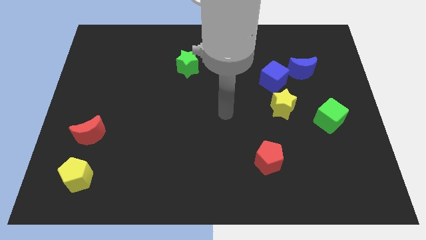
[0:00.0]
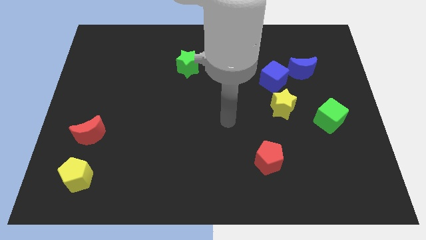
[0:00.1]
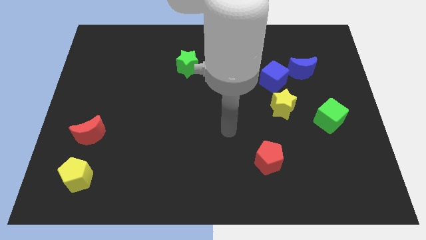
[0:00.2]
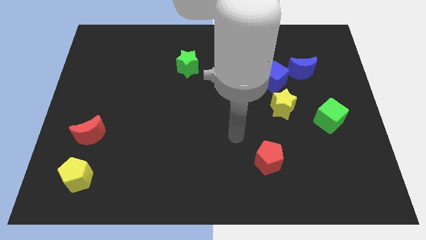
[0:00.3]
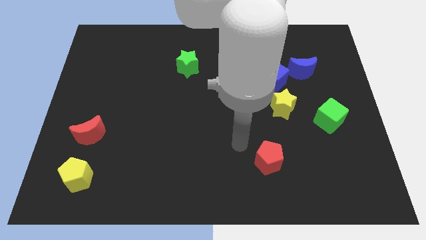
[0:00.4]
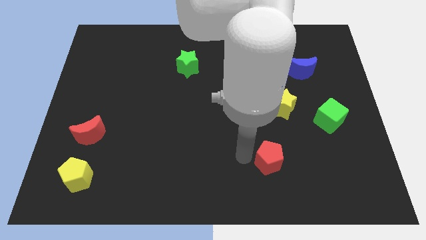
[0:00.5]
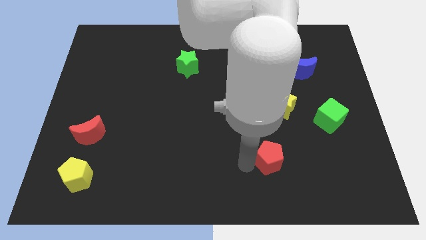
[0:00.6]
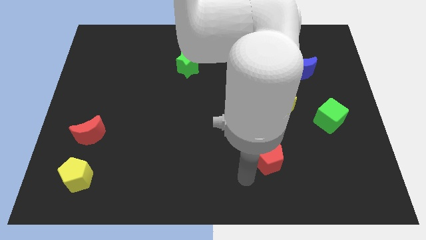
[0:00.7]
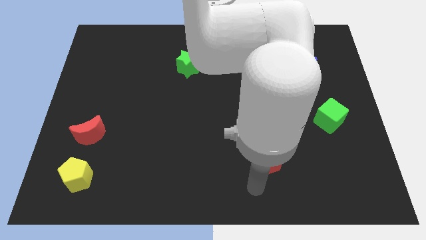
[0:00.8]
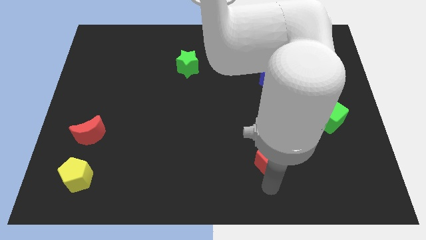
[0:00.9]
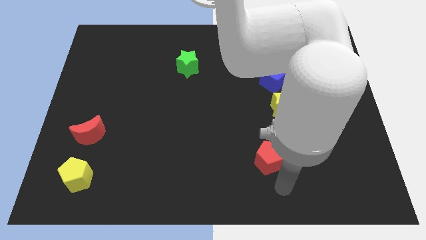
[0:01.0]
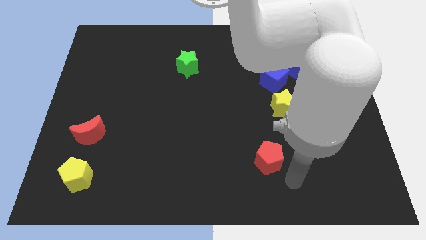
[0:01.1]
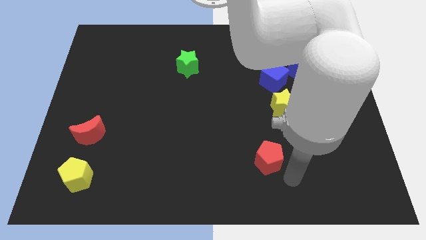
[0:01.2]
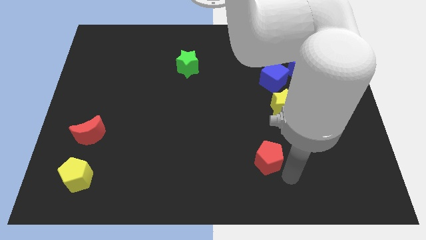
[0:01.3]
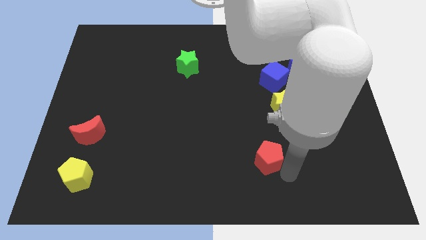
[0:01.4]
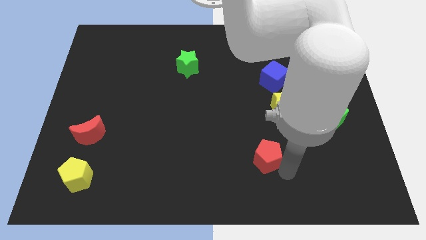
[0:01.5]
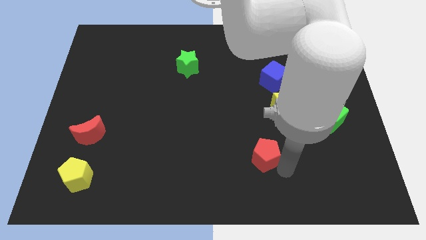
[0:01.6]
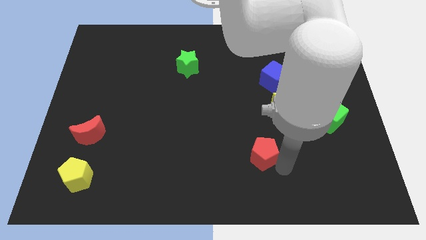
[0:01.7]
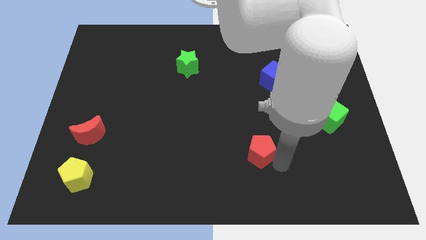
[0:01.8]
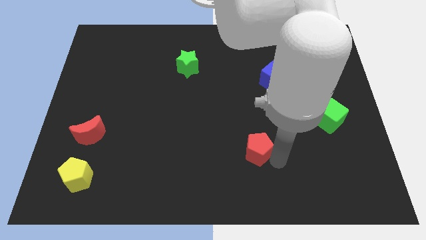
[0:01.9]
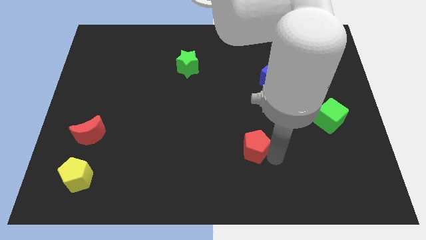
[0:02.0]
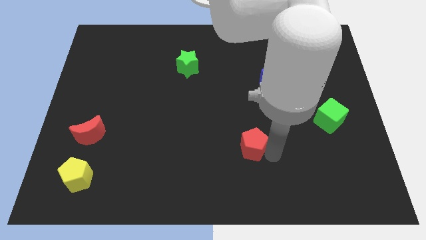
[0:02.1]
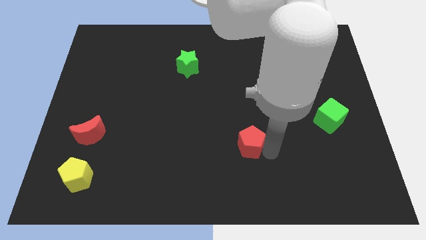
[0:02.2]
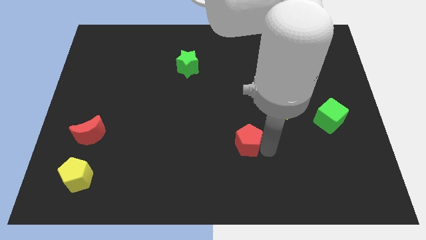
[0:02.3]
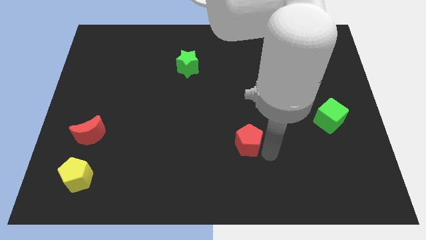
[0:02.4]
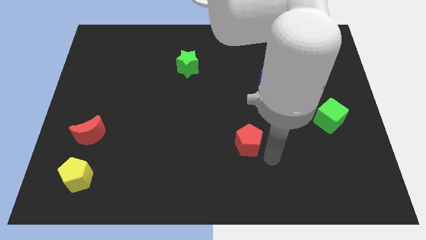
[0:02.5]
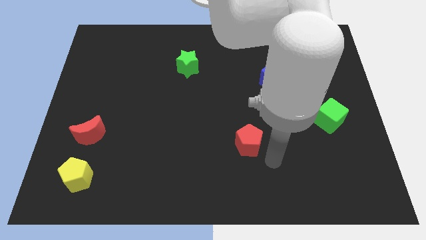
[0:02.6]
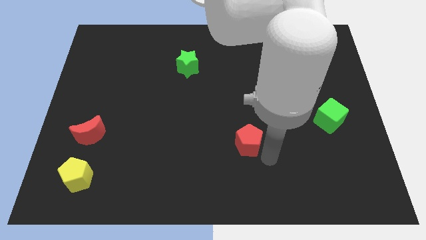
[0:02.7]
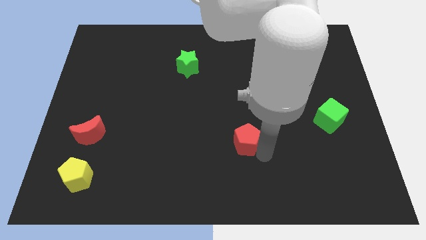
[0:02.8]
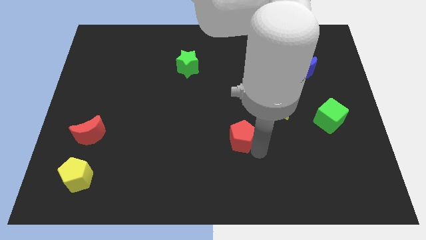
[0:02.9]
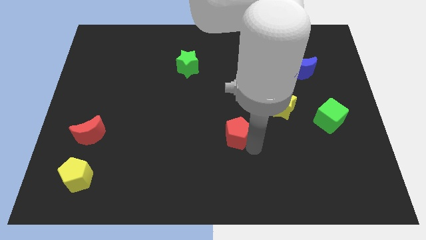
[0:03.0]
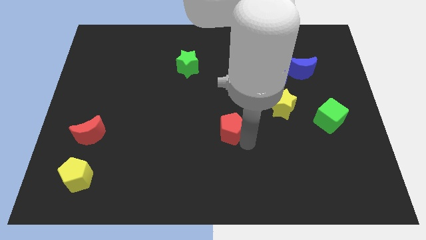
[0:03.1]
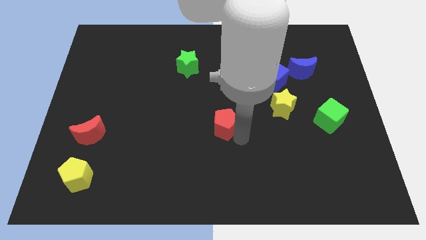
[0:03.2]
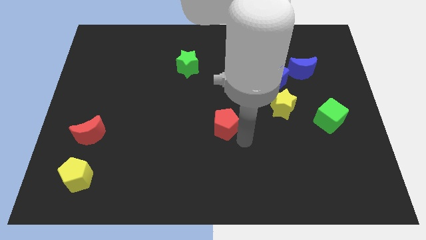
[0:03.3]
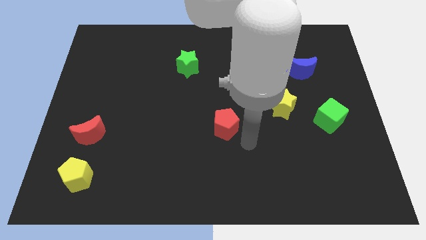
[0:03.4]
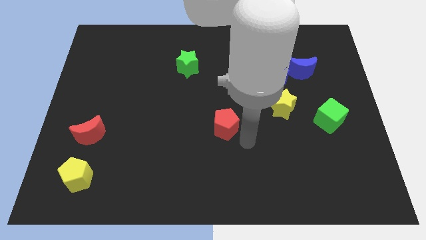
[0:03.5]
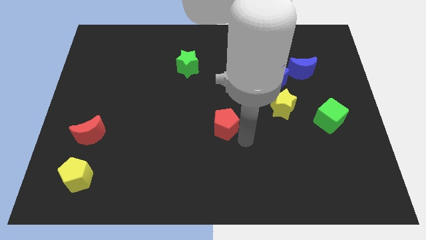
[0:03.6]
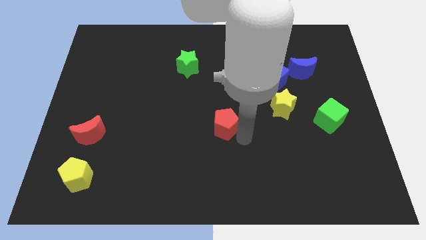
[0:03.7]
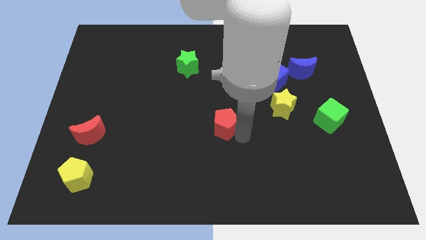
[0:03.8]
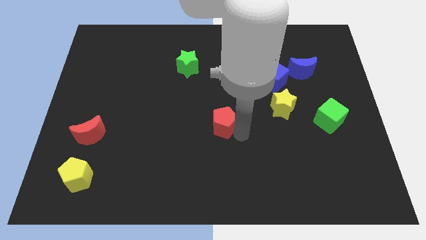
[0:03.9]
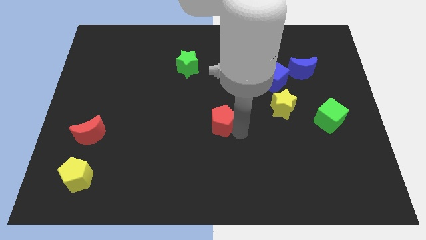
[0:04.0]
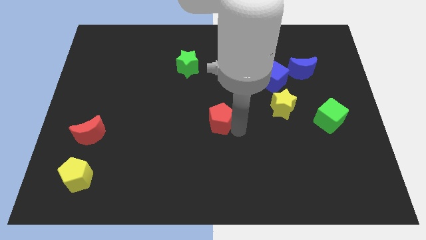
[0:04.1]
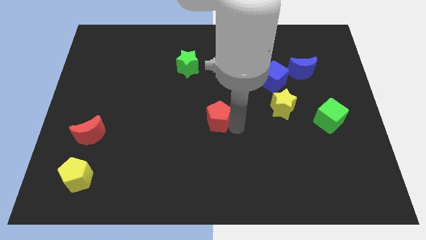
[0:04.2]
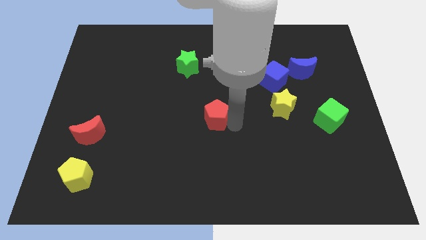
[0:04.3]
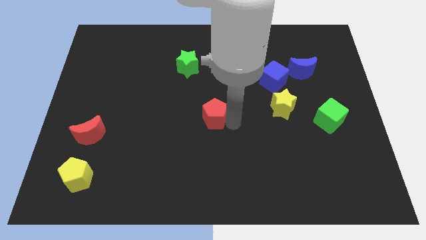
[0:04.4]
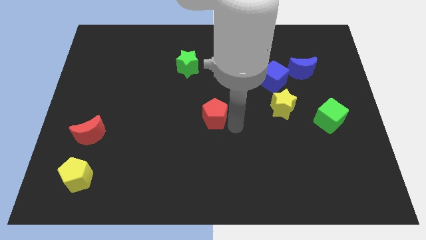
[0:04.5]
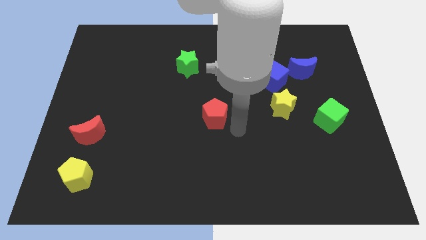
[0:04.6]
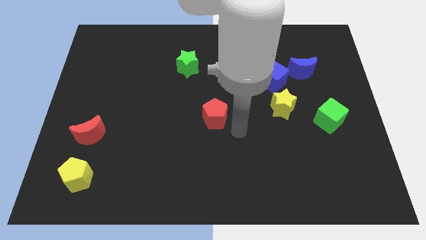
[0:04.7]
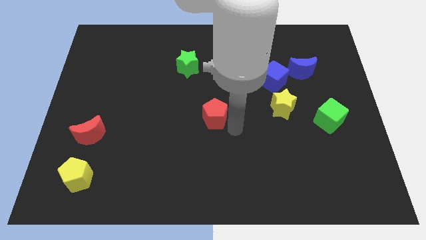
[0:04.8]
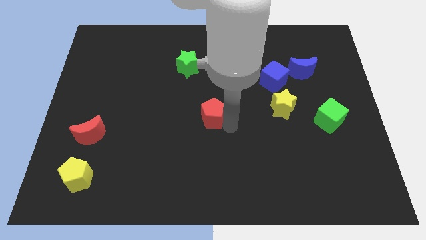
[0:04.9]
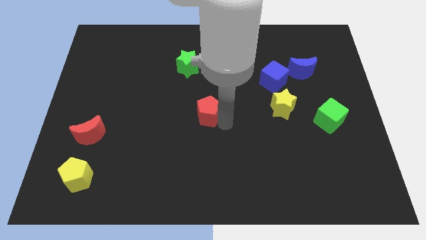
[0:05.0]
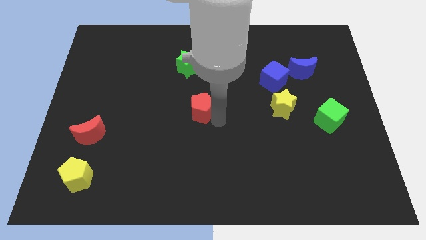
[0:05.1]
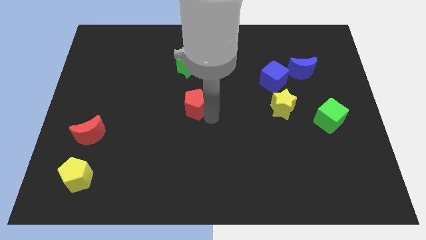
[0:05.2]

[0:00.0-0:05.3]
push the red pentagon up and then to the left

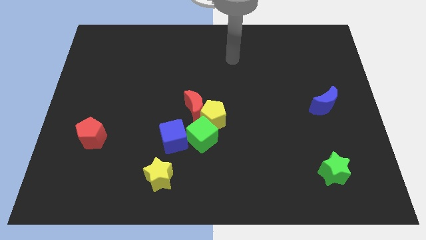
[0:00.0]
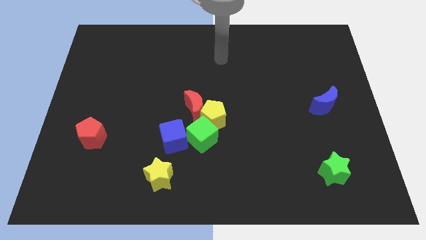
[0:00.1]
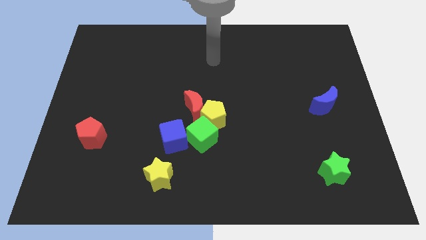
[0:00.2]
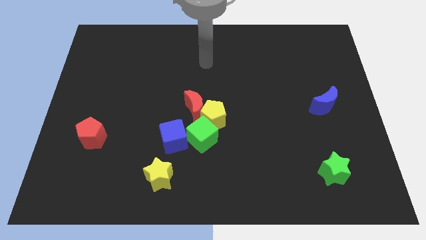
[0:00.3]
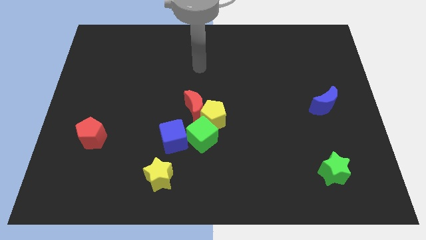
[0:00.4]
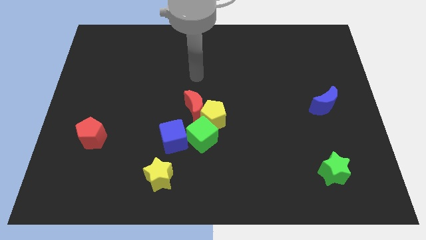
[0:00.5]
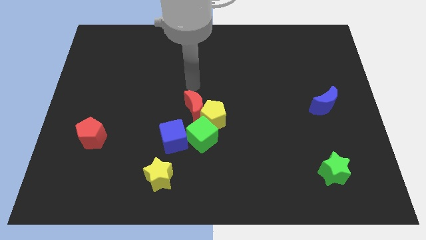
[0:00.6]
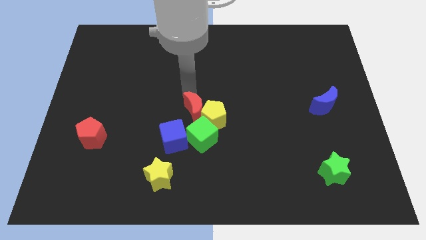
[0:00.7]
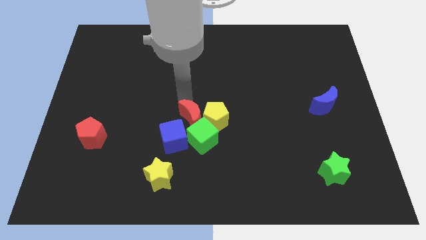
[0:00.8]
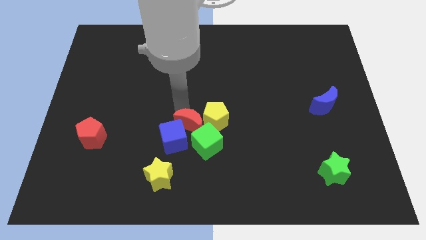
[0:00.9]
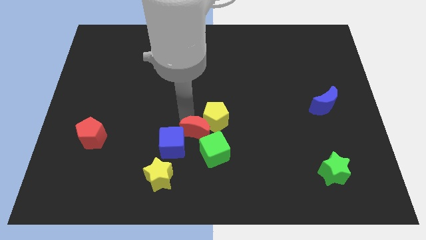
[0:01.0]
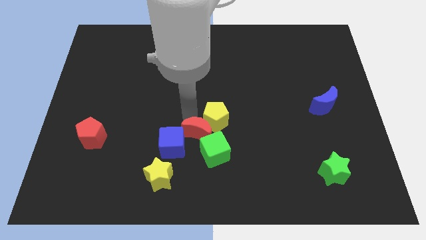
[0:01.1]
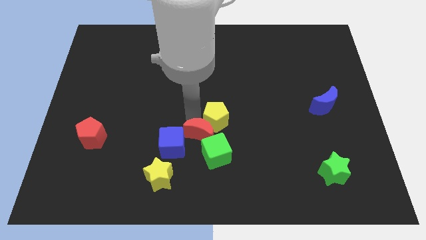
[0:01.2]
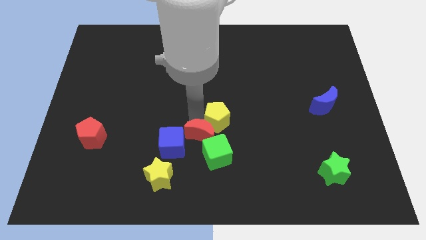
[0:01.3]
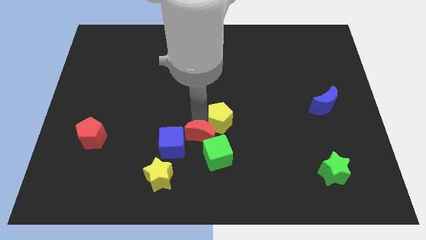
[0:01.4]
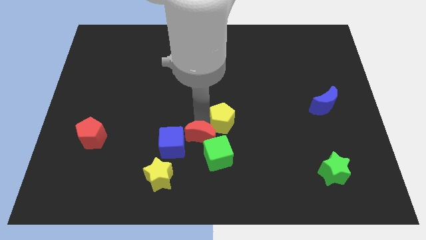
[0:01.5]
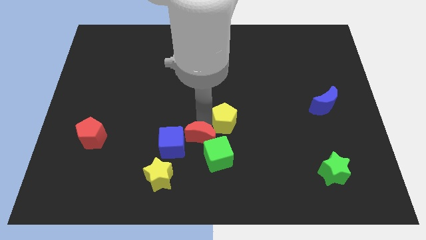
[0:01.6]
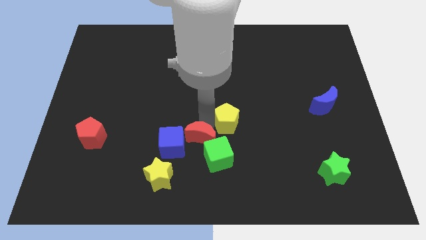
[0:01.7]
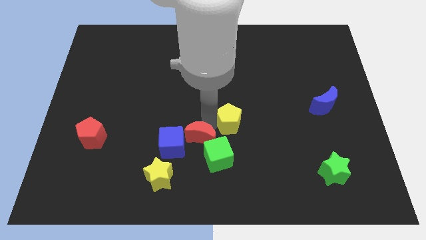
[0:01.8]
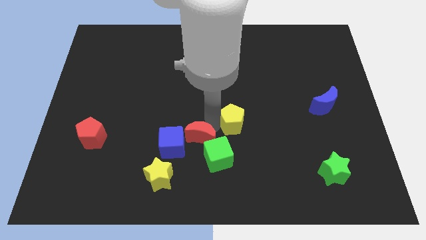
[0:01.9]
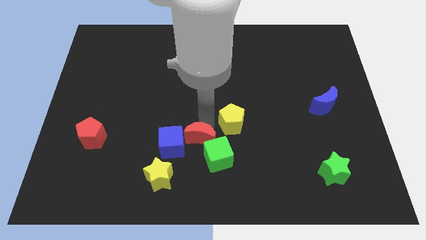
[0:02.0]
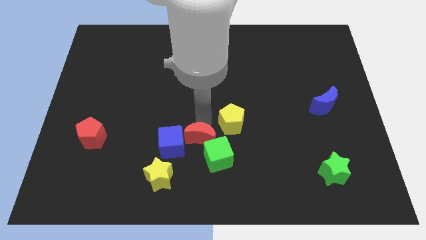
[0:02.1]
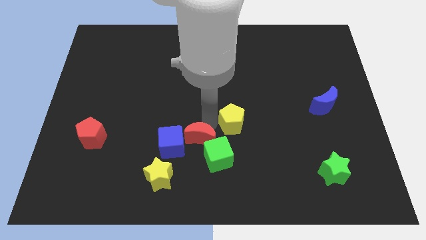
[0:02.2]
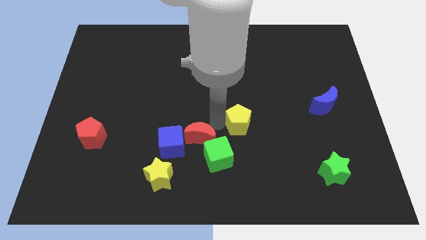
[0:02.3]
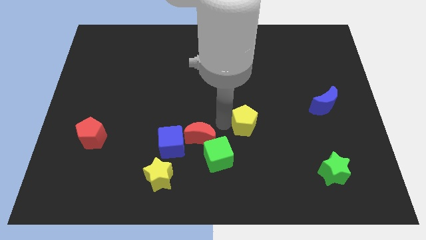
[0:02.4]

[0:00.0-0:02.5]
slightly slide the yellow pentagon right

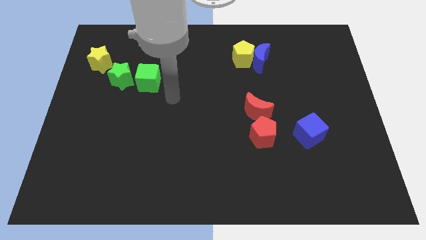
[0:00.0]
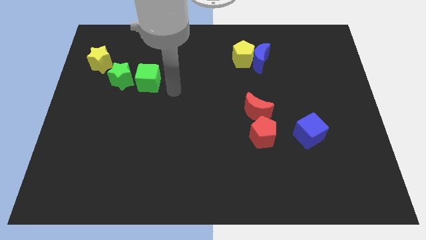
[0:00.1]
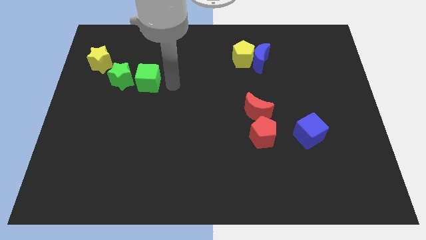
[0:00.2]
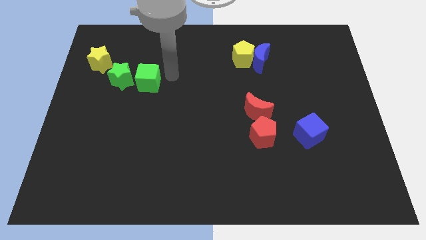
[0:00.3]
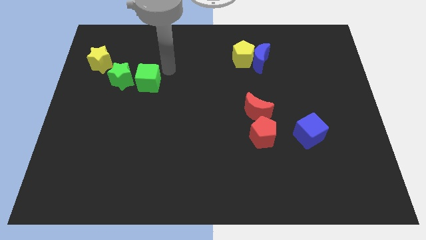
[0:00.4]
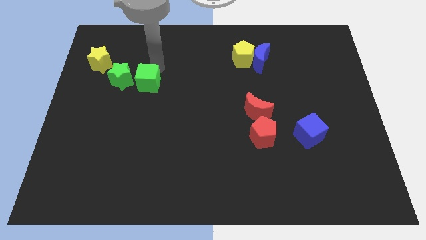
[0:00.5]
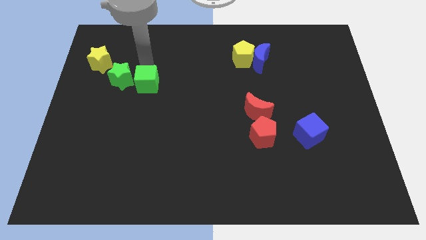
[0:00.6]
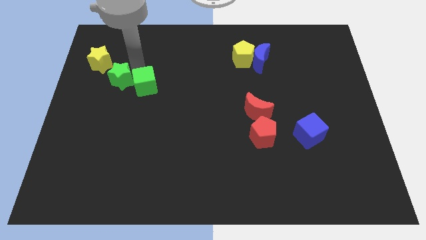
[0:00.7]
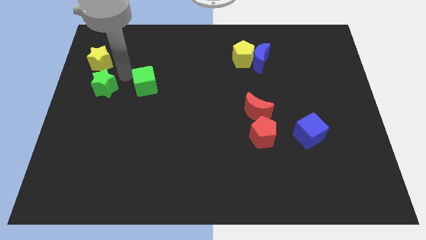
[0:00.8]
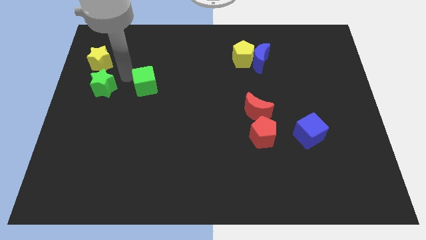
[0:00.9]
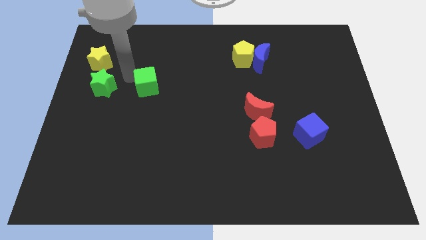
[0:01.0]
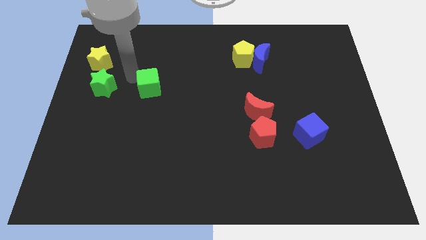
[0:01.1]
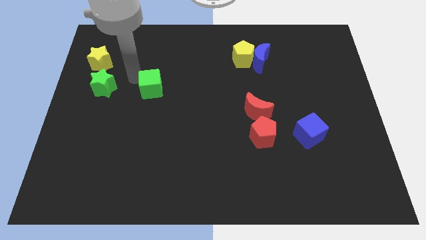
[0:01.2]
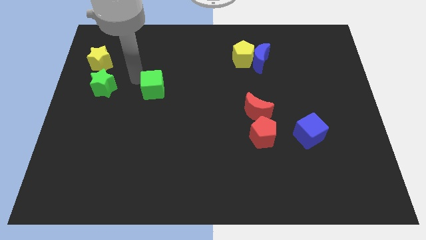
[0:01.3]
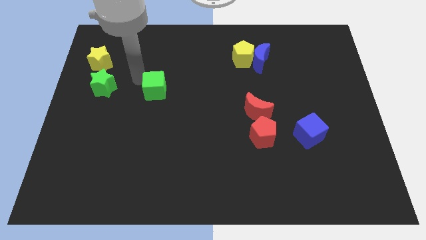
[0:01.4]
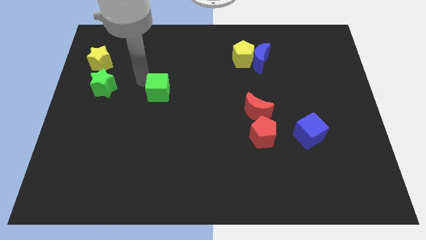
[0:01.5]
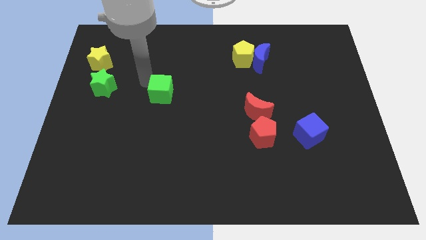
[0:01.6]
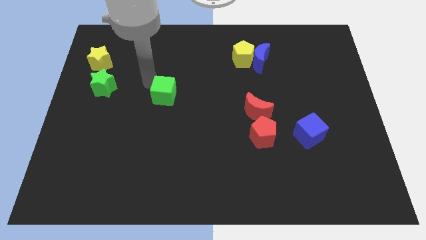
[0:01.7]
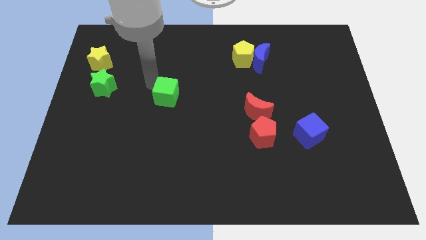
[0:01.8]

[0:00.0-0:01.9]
slightly slide the green cube diagonally down and right
